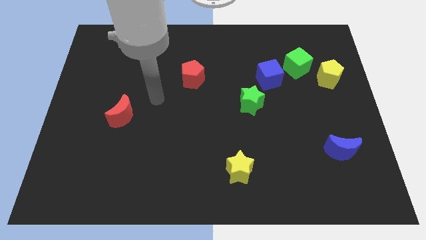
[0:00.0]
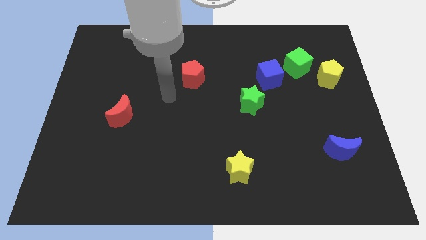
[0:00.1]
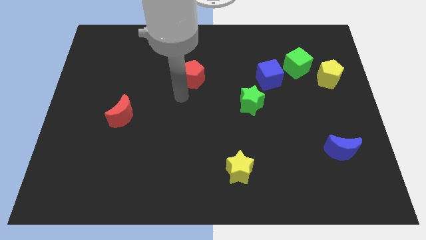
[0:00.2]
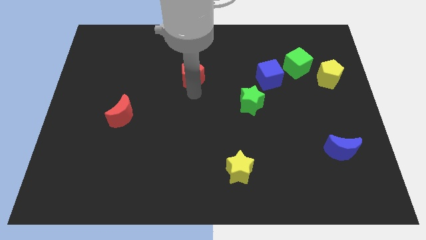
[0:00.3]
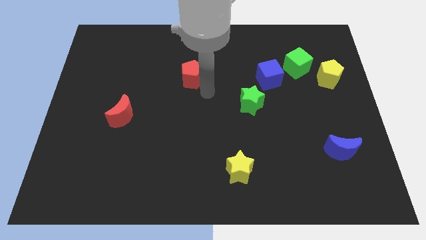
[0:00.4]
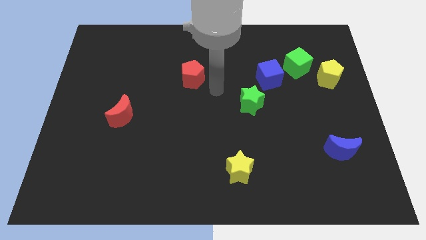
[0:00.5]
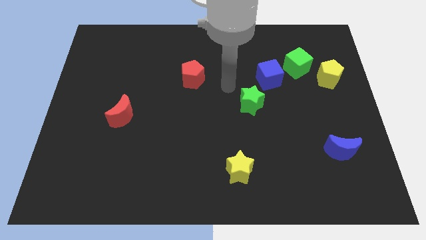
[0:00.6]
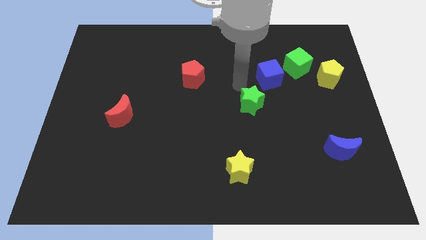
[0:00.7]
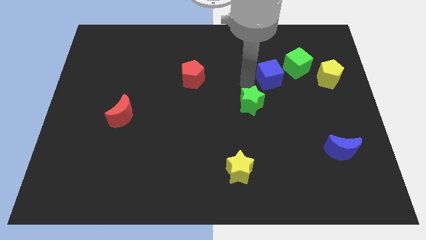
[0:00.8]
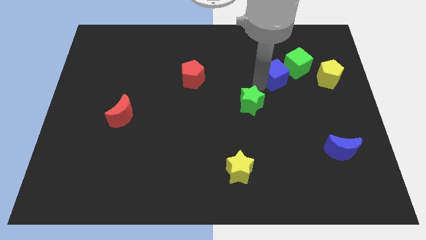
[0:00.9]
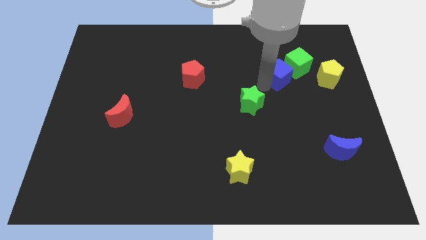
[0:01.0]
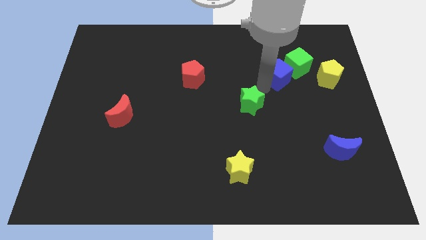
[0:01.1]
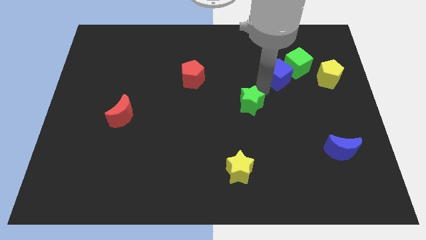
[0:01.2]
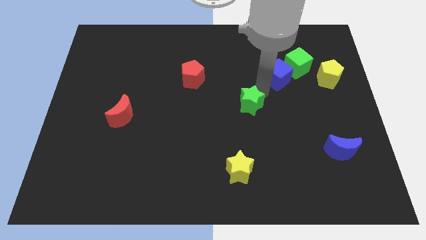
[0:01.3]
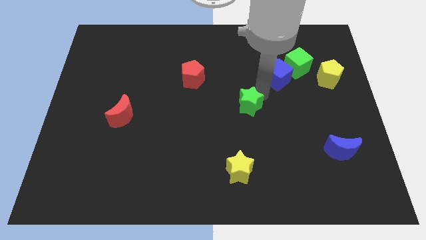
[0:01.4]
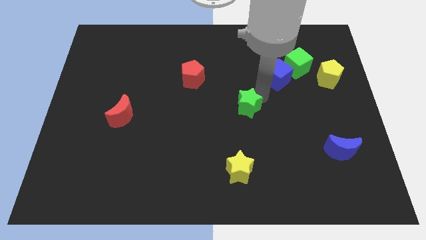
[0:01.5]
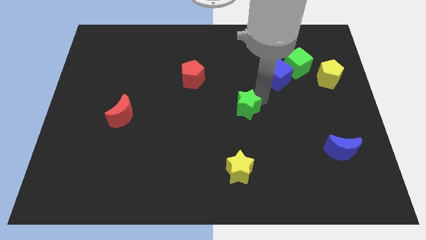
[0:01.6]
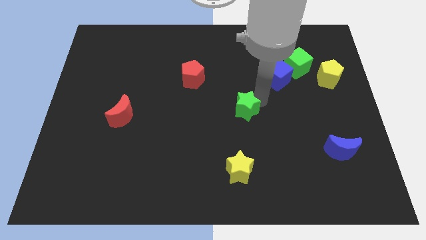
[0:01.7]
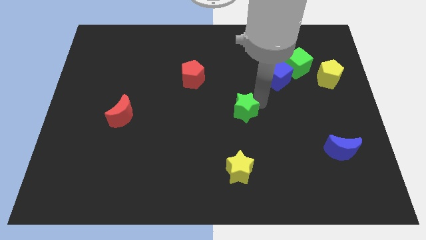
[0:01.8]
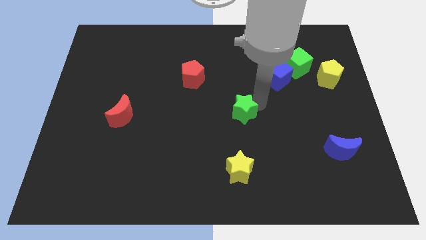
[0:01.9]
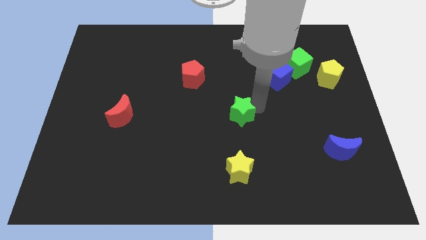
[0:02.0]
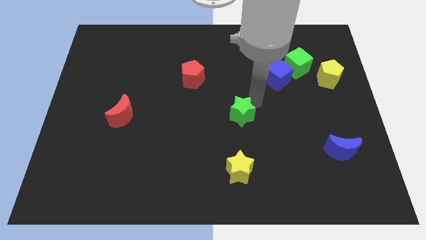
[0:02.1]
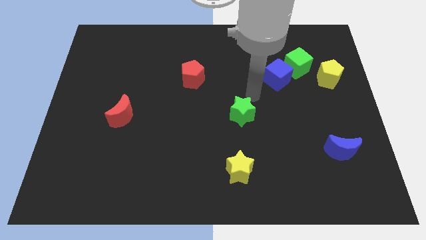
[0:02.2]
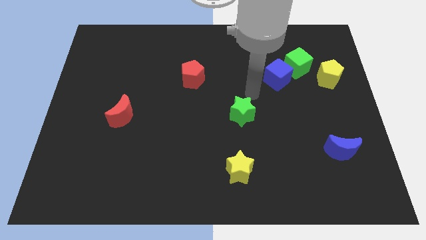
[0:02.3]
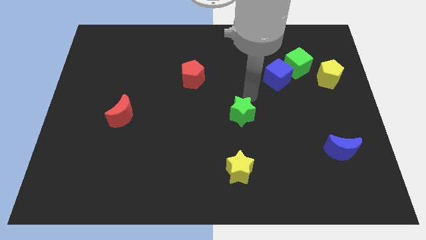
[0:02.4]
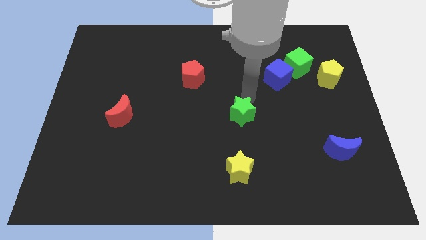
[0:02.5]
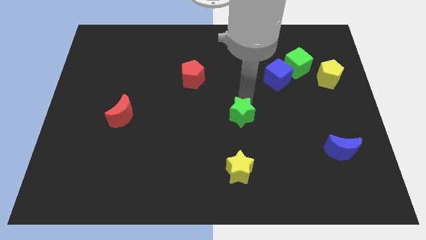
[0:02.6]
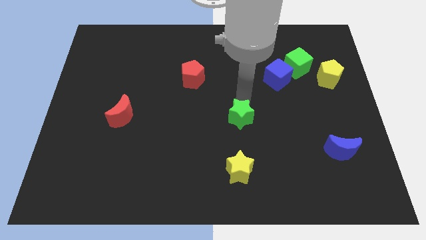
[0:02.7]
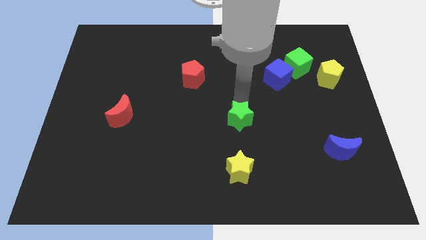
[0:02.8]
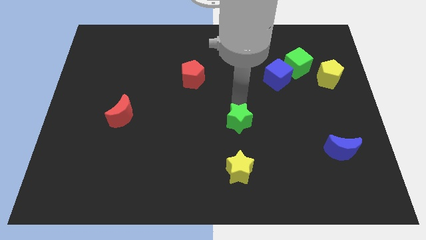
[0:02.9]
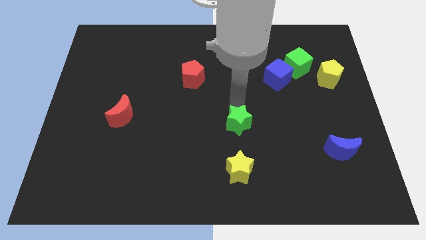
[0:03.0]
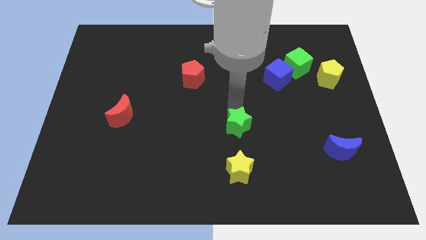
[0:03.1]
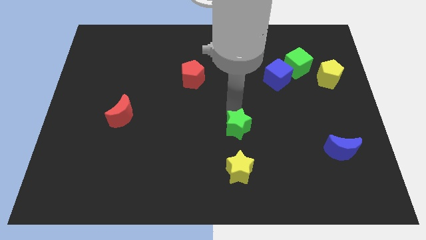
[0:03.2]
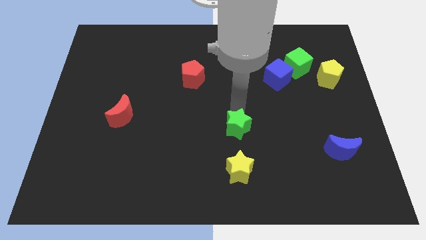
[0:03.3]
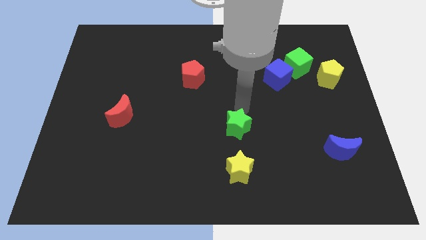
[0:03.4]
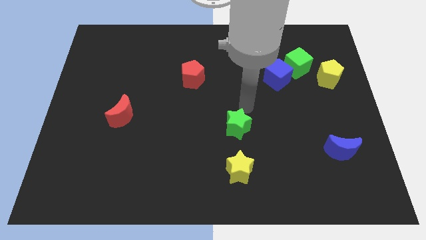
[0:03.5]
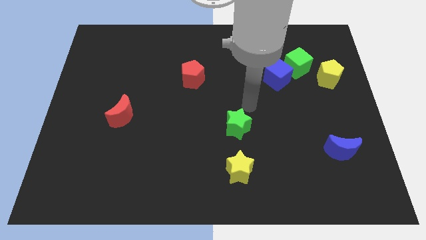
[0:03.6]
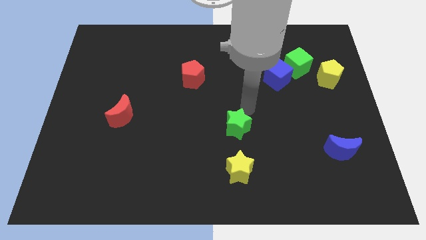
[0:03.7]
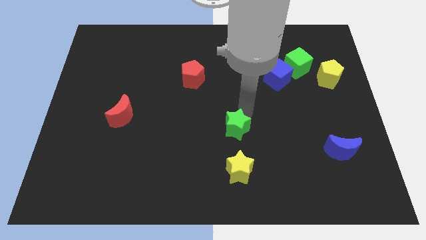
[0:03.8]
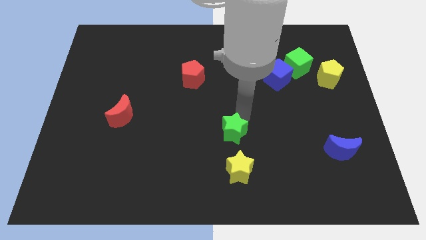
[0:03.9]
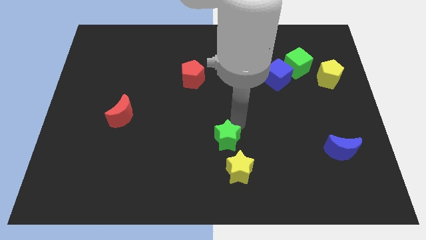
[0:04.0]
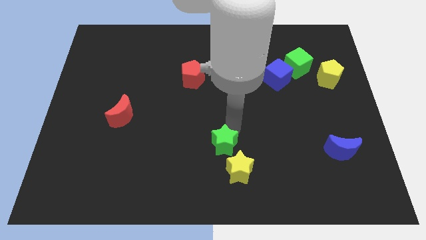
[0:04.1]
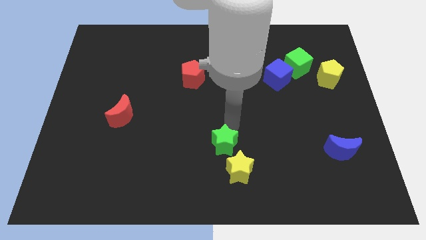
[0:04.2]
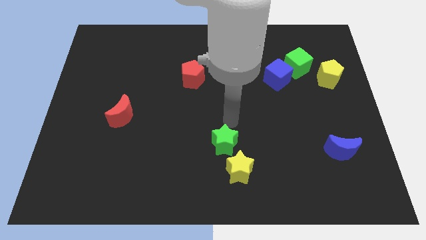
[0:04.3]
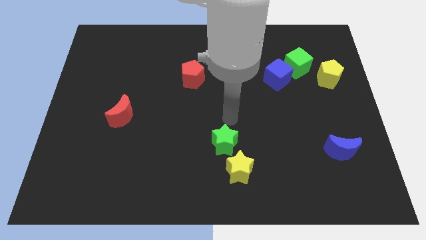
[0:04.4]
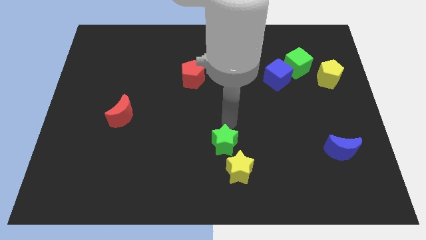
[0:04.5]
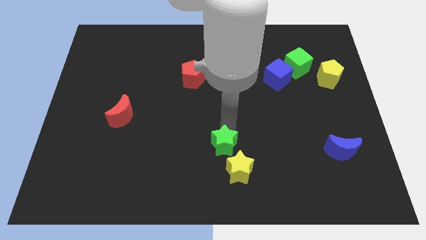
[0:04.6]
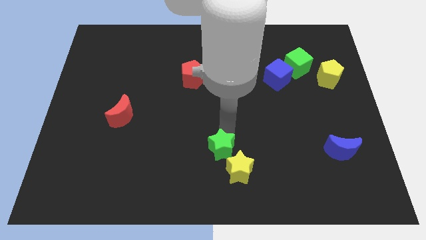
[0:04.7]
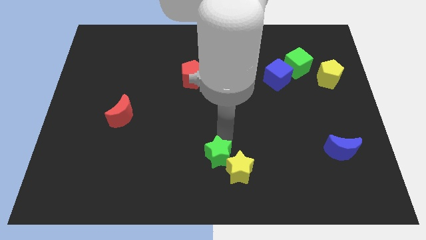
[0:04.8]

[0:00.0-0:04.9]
slide the green star to the bottom side

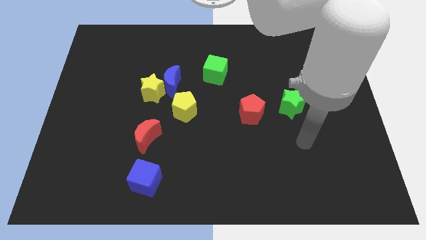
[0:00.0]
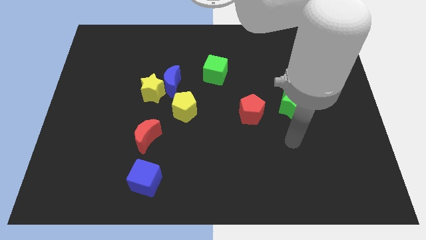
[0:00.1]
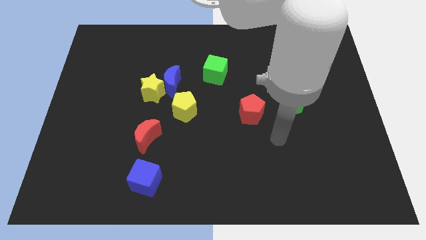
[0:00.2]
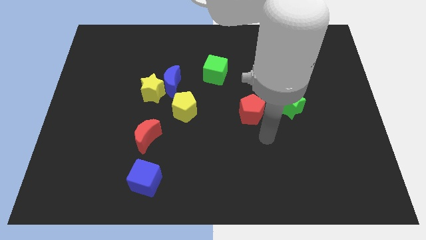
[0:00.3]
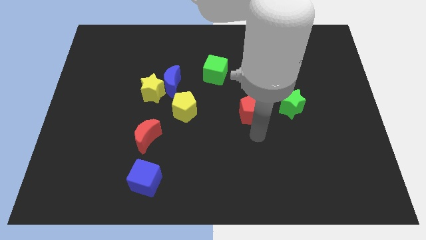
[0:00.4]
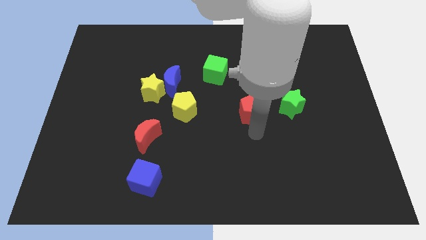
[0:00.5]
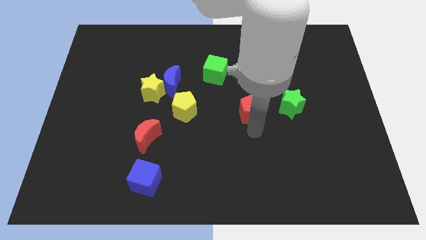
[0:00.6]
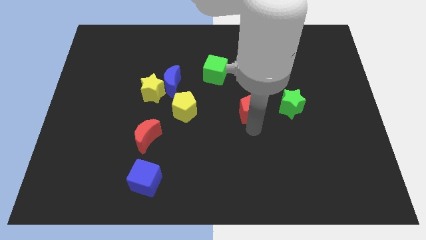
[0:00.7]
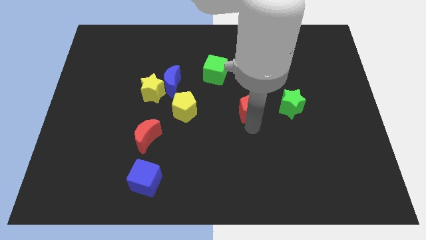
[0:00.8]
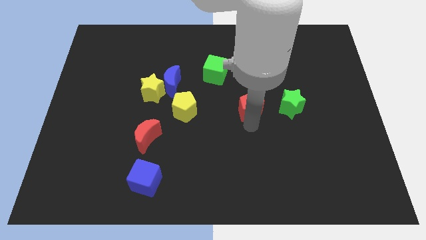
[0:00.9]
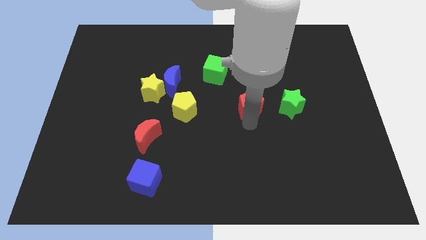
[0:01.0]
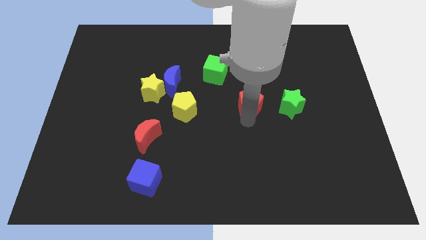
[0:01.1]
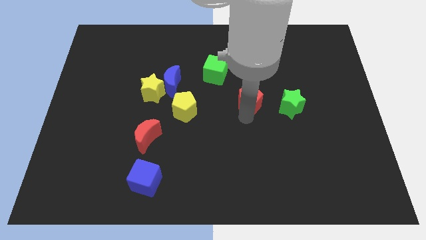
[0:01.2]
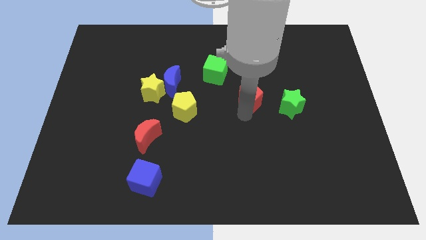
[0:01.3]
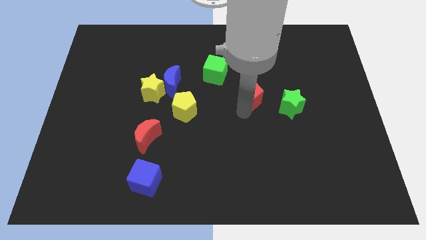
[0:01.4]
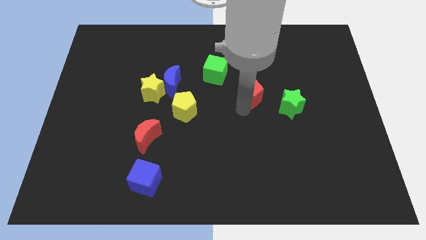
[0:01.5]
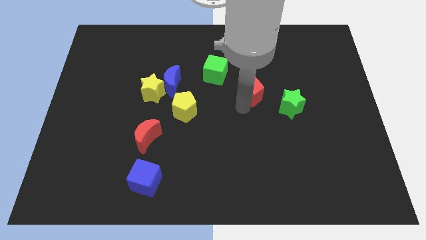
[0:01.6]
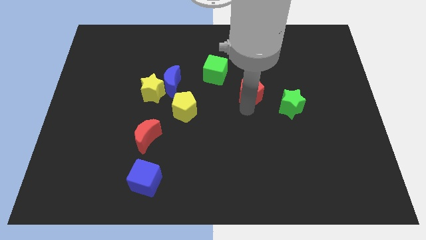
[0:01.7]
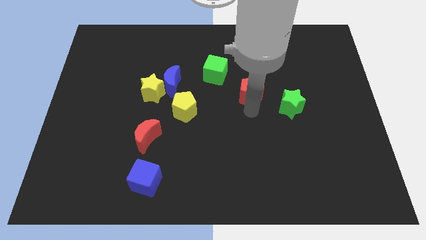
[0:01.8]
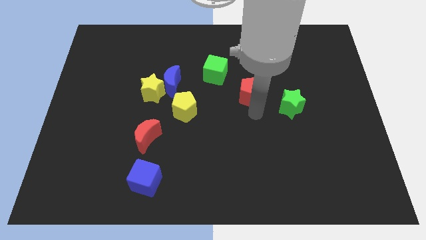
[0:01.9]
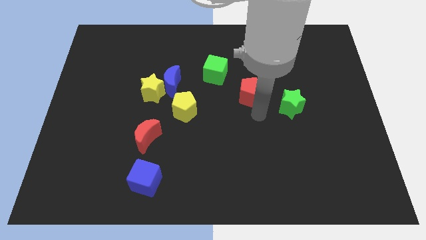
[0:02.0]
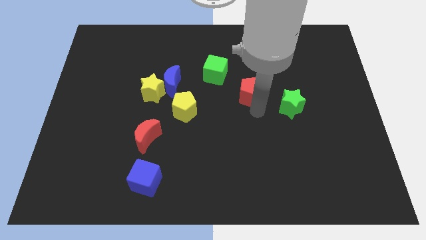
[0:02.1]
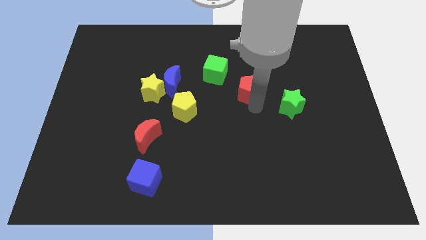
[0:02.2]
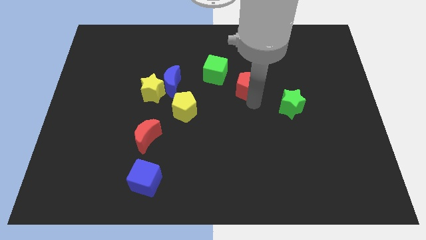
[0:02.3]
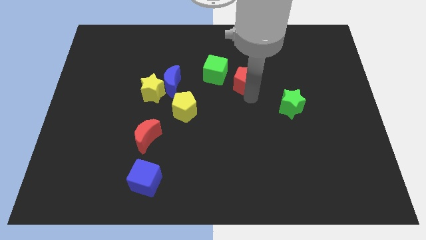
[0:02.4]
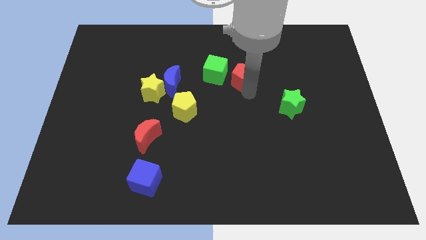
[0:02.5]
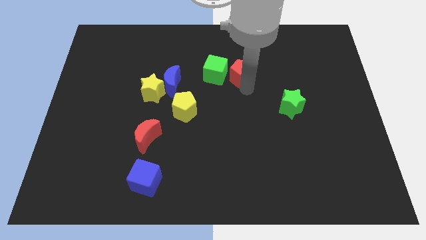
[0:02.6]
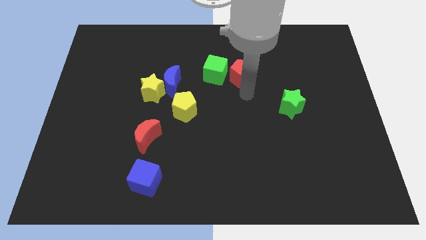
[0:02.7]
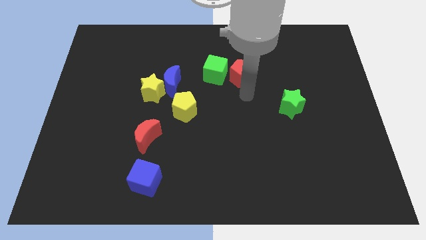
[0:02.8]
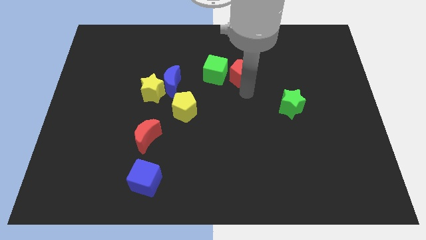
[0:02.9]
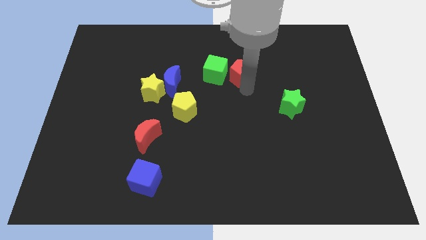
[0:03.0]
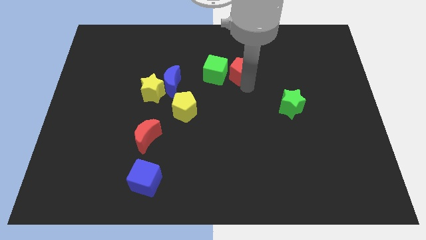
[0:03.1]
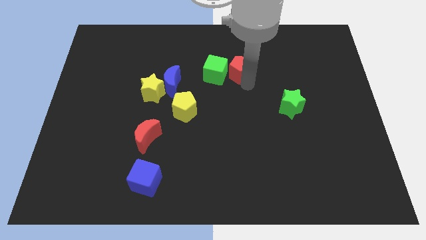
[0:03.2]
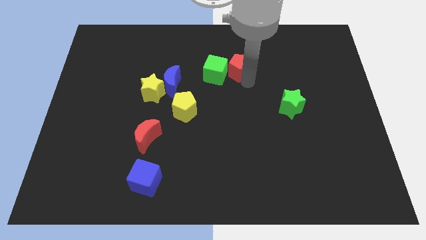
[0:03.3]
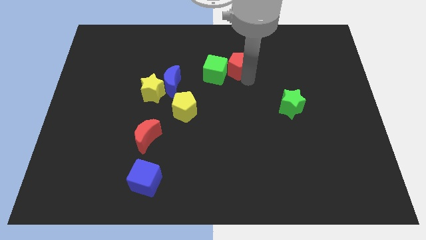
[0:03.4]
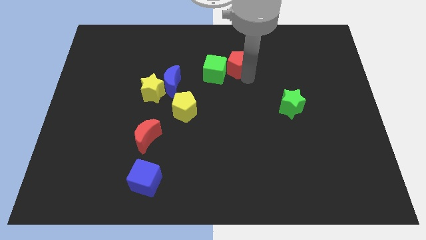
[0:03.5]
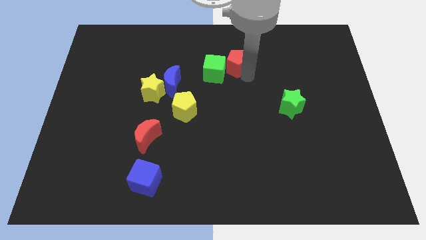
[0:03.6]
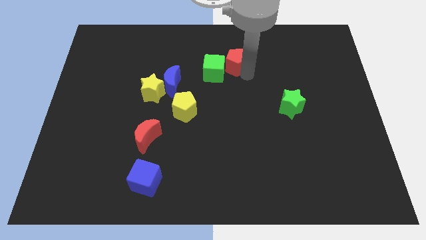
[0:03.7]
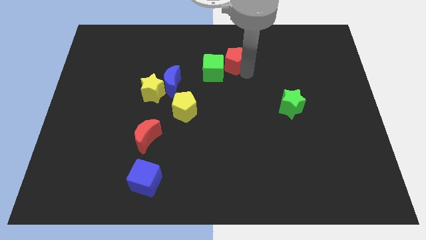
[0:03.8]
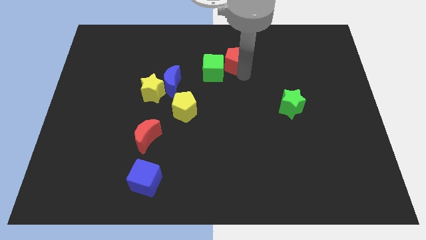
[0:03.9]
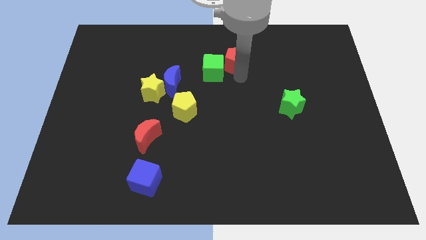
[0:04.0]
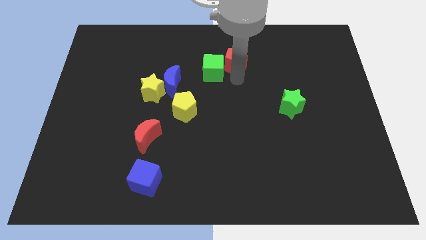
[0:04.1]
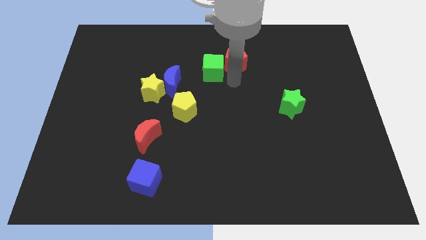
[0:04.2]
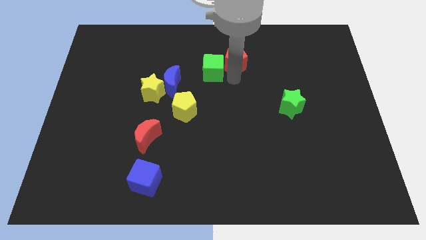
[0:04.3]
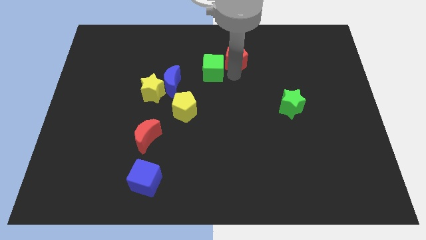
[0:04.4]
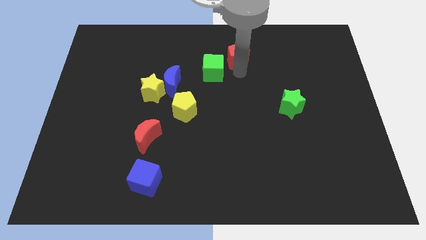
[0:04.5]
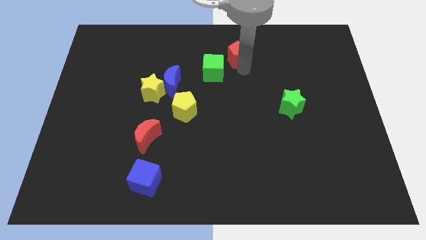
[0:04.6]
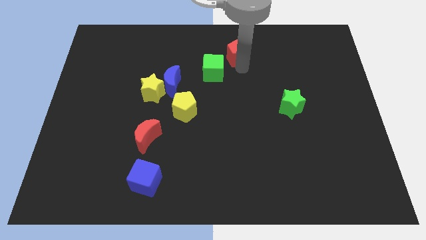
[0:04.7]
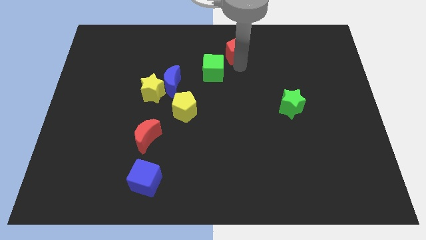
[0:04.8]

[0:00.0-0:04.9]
push the red pentagon to the top side
